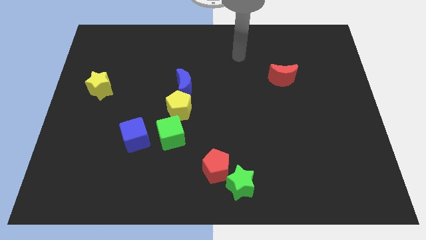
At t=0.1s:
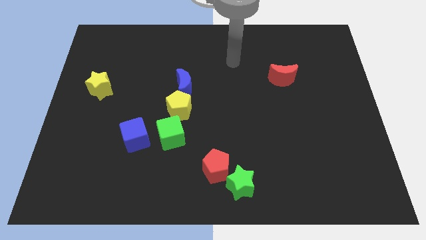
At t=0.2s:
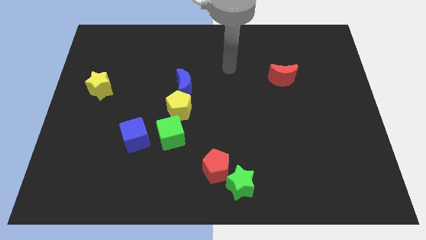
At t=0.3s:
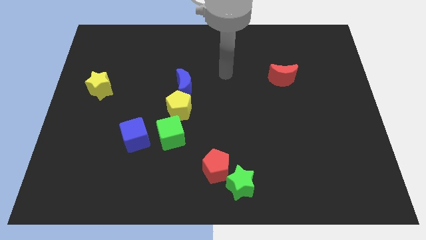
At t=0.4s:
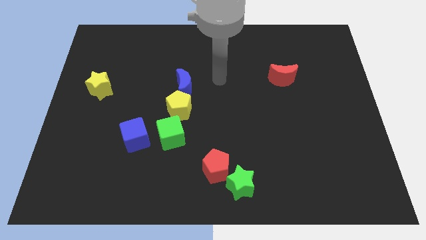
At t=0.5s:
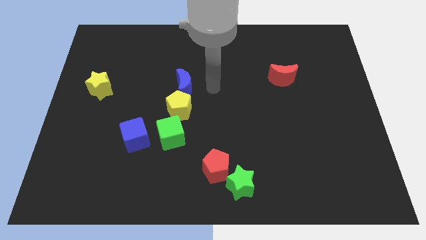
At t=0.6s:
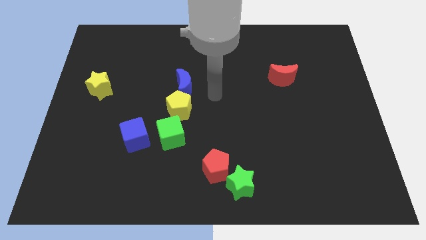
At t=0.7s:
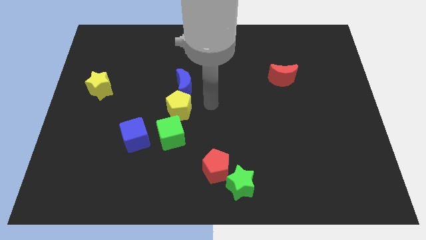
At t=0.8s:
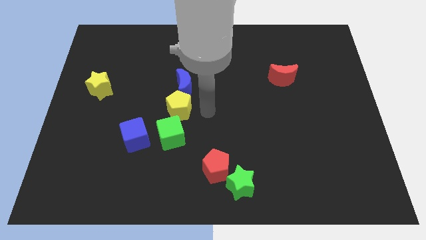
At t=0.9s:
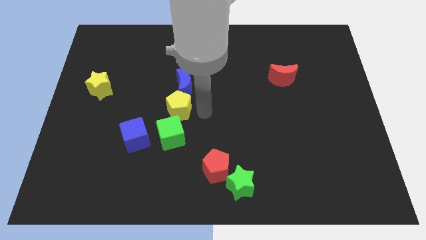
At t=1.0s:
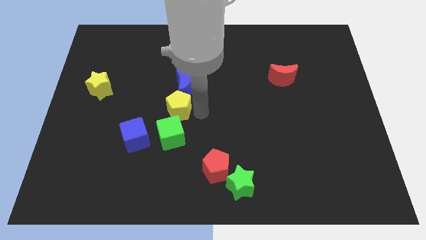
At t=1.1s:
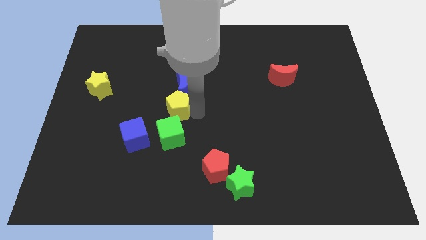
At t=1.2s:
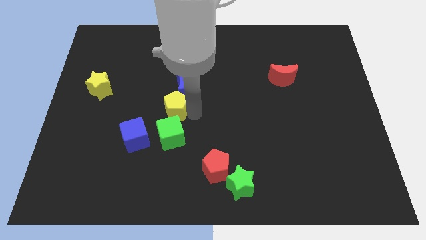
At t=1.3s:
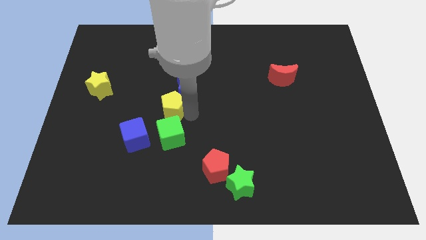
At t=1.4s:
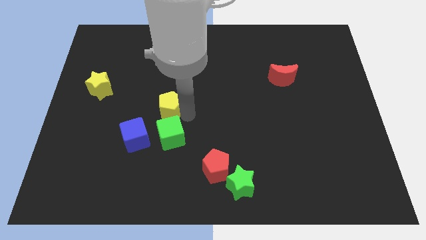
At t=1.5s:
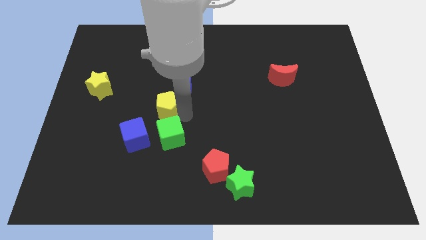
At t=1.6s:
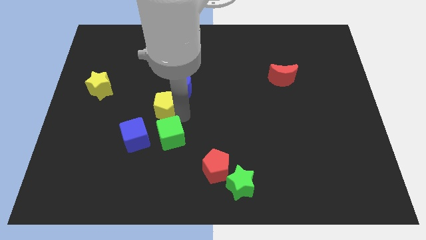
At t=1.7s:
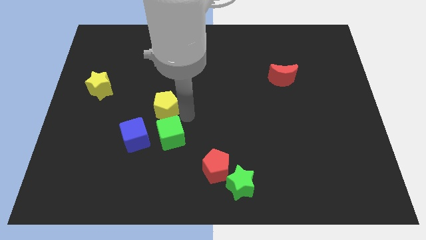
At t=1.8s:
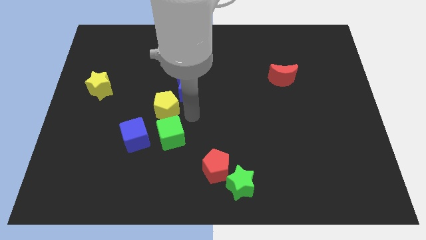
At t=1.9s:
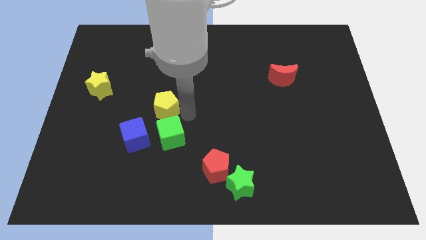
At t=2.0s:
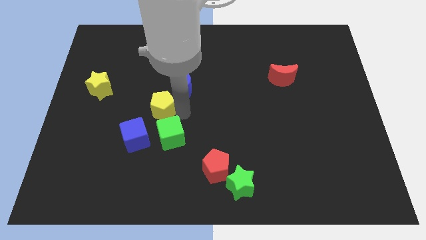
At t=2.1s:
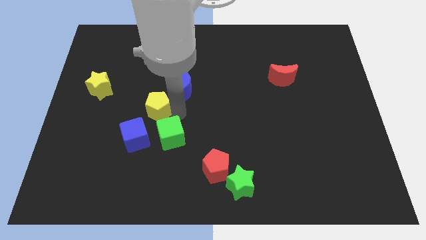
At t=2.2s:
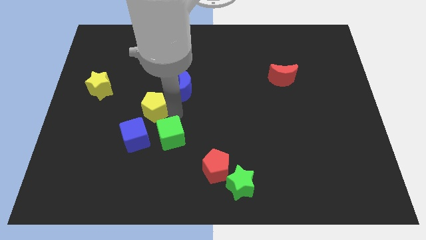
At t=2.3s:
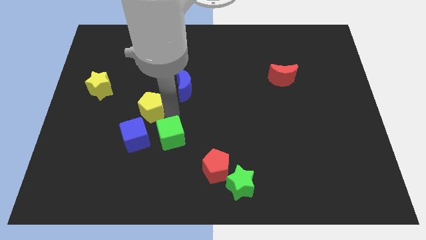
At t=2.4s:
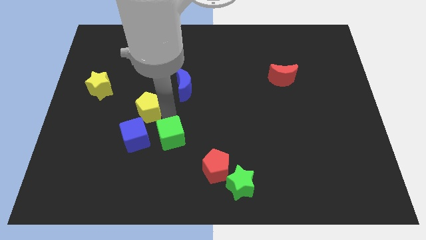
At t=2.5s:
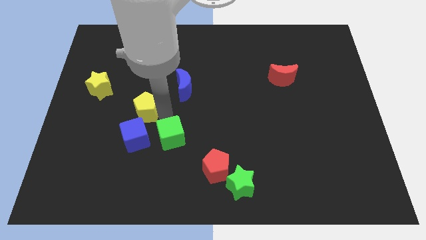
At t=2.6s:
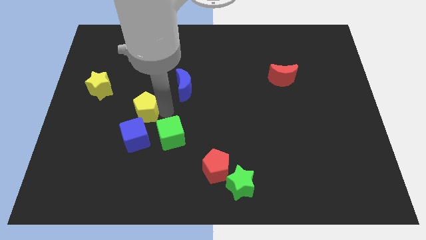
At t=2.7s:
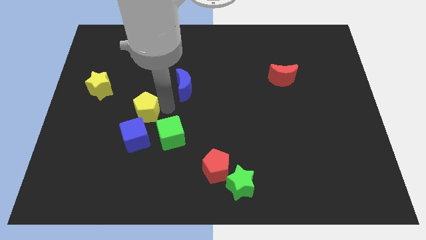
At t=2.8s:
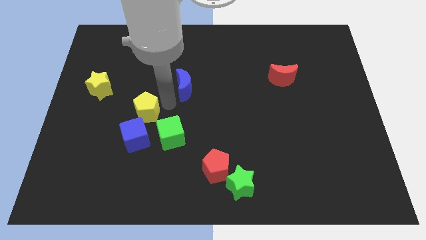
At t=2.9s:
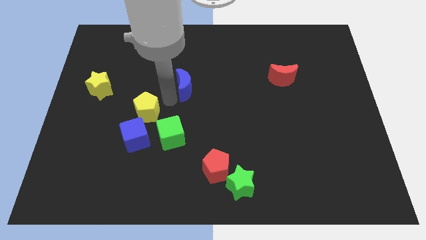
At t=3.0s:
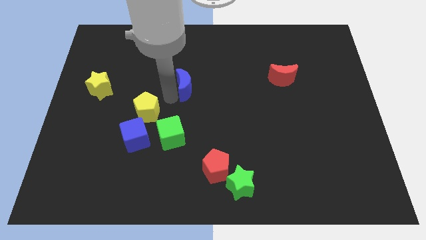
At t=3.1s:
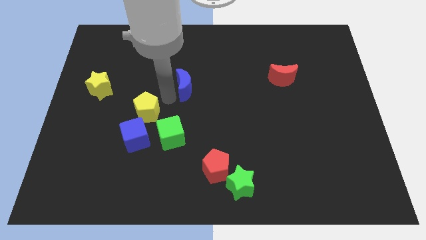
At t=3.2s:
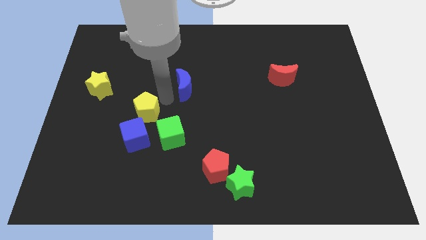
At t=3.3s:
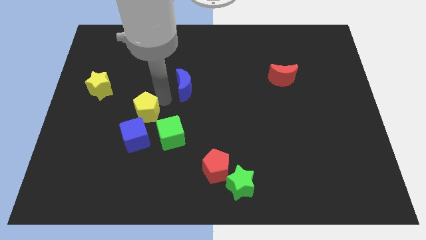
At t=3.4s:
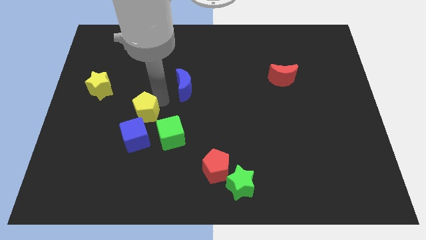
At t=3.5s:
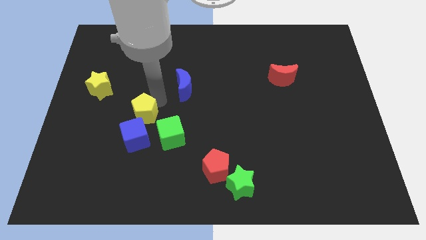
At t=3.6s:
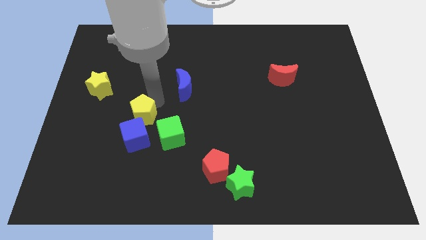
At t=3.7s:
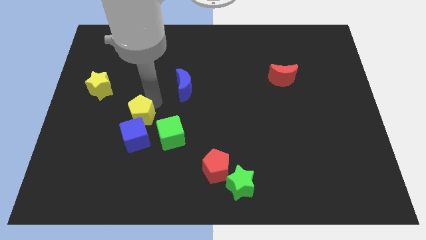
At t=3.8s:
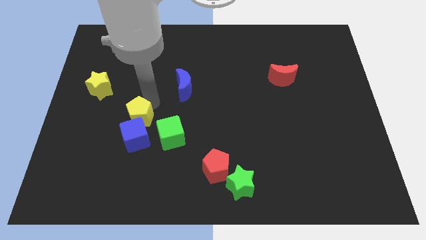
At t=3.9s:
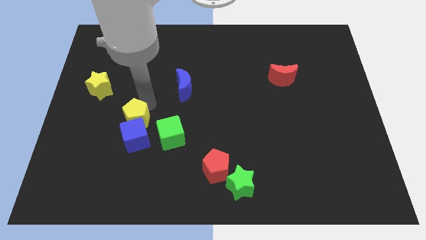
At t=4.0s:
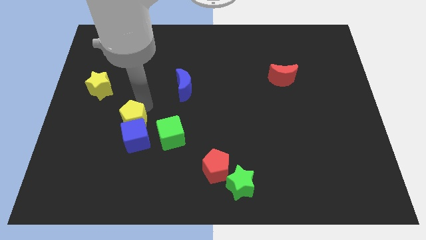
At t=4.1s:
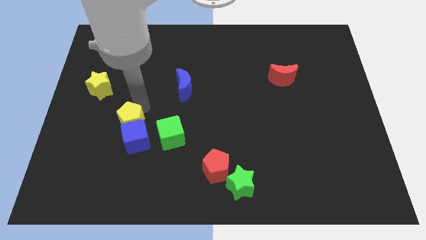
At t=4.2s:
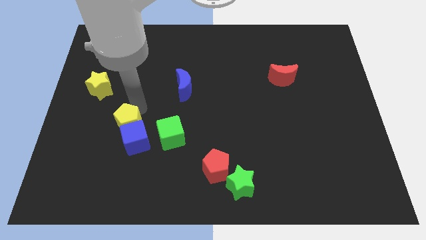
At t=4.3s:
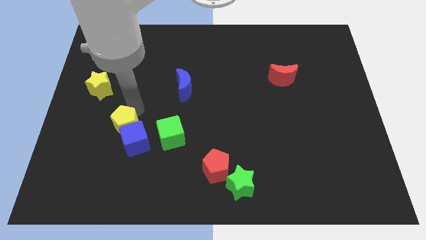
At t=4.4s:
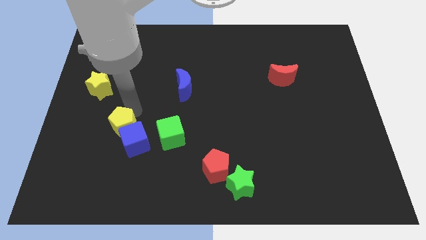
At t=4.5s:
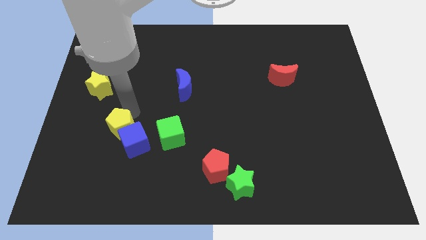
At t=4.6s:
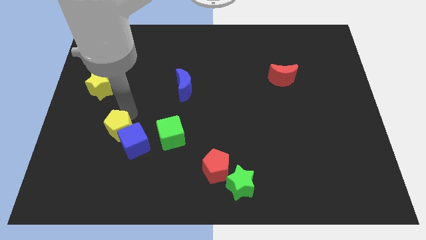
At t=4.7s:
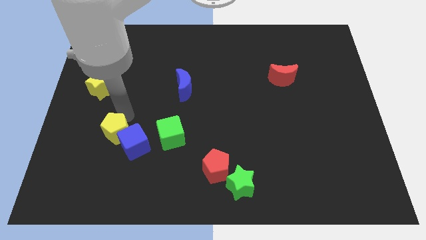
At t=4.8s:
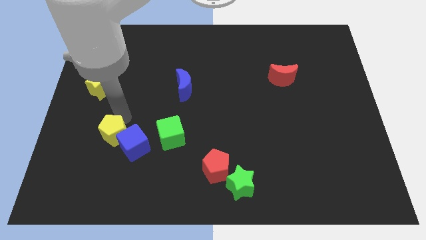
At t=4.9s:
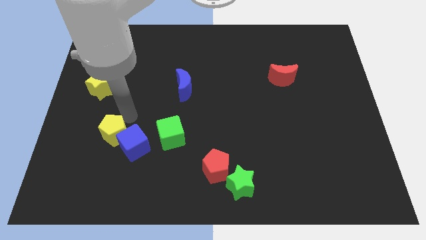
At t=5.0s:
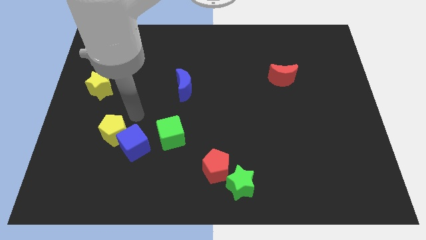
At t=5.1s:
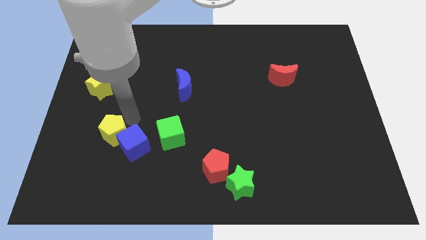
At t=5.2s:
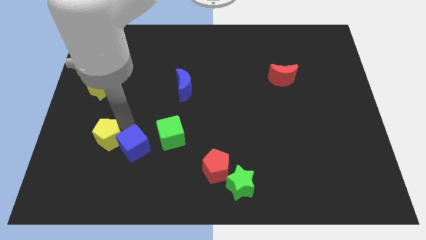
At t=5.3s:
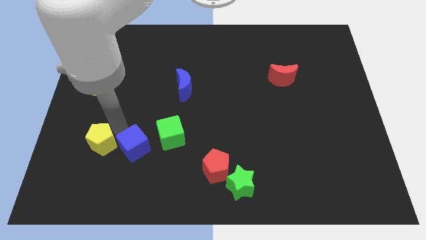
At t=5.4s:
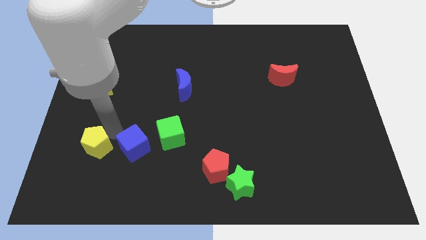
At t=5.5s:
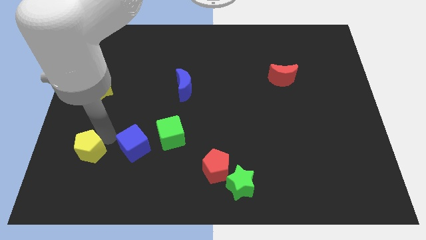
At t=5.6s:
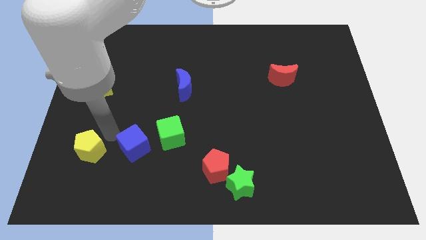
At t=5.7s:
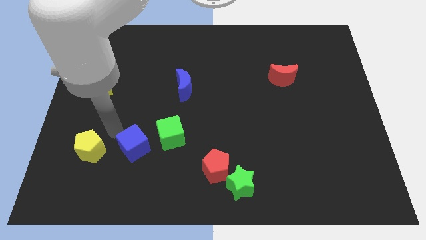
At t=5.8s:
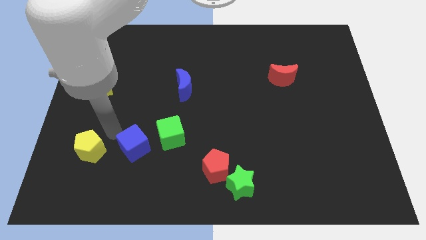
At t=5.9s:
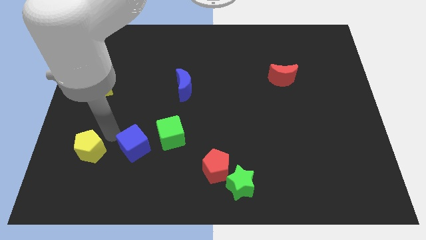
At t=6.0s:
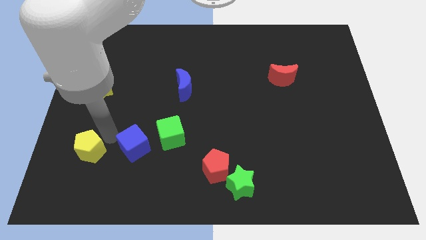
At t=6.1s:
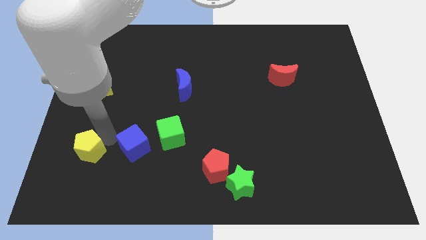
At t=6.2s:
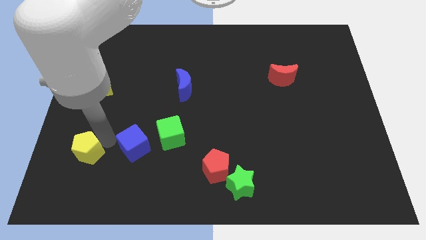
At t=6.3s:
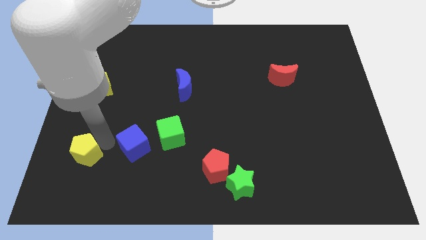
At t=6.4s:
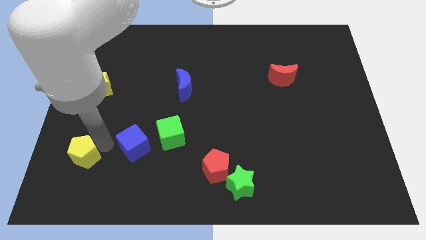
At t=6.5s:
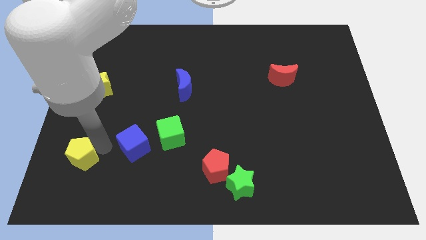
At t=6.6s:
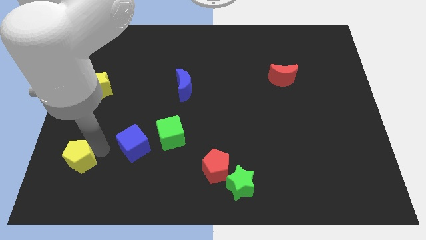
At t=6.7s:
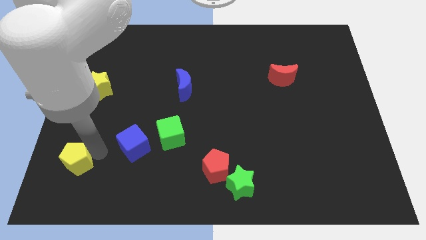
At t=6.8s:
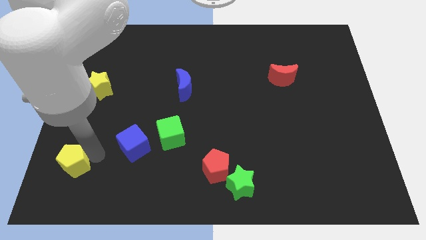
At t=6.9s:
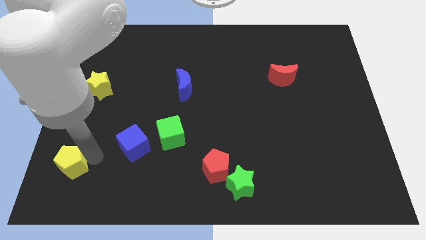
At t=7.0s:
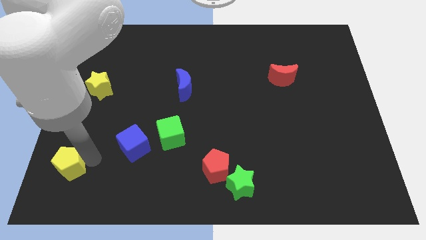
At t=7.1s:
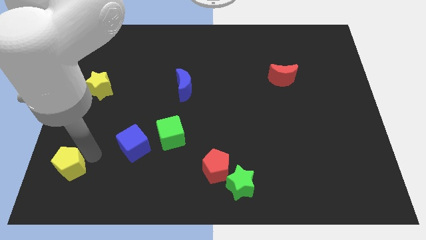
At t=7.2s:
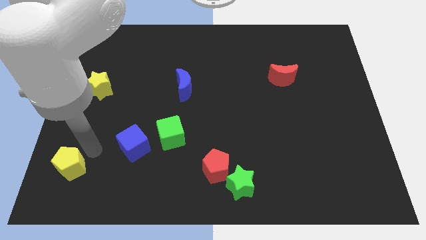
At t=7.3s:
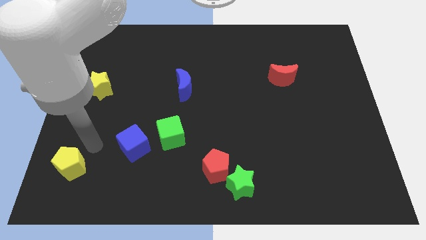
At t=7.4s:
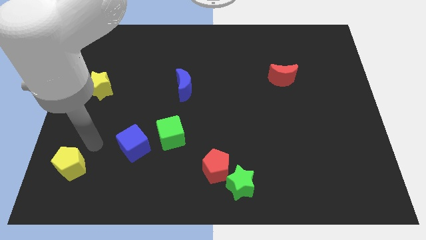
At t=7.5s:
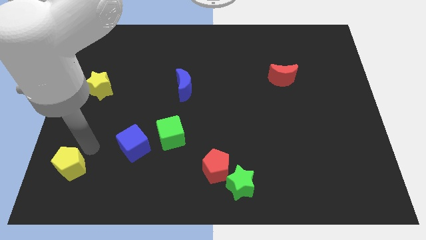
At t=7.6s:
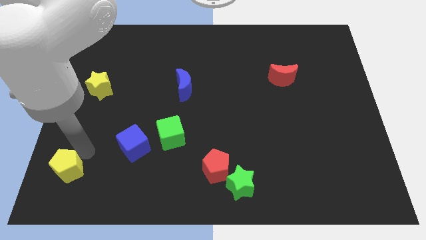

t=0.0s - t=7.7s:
push the yellow pentagon to the bottom left of the board
